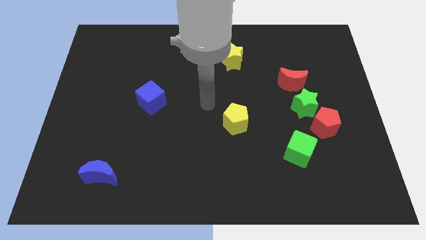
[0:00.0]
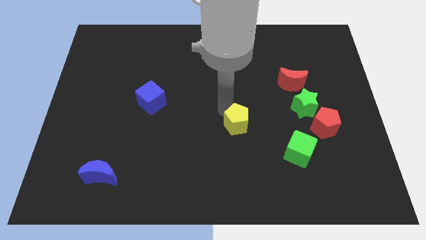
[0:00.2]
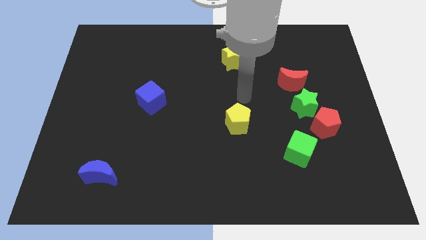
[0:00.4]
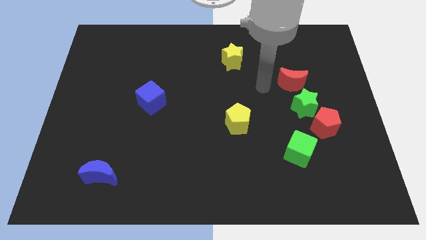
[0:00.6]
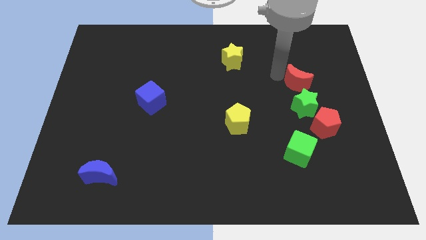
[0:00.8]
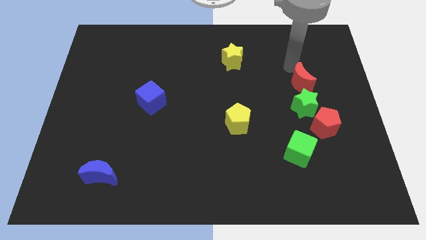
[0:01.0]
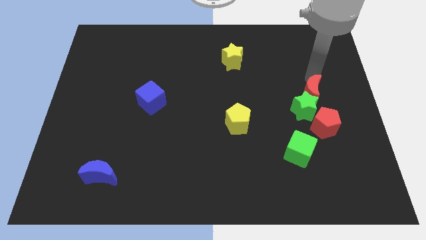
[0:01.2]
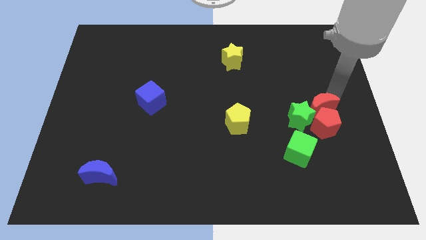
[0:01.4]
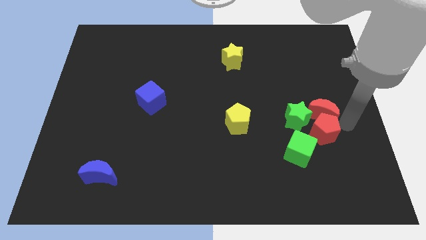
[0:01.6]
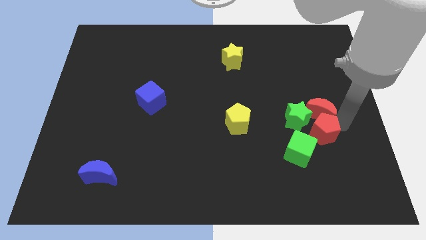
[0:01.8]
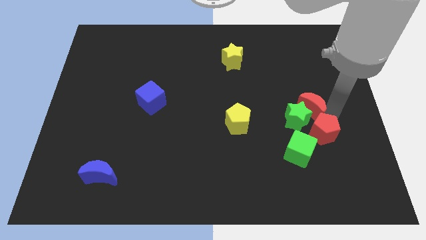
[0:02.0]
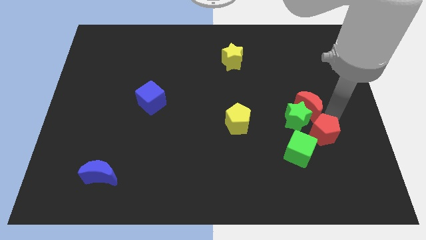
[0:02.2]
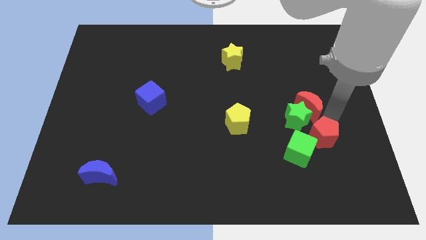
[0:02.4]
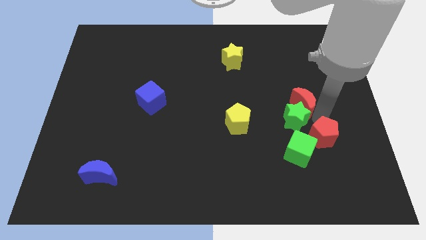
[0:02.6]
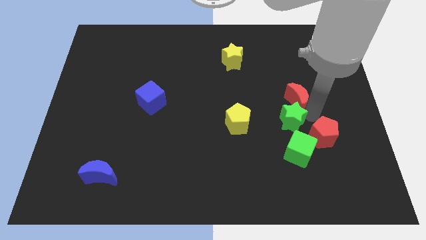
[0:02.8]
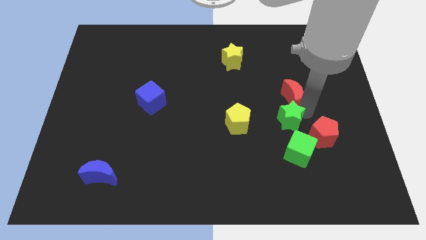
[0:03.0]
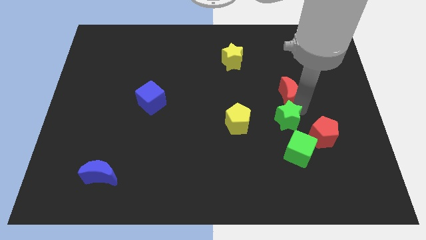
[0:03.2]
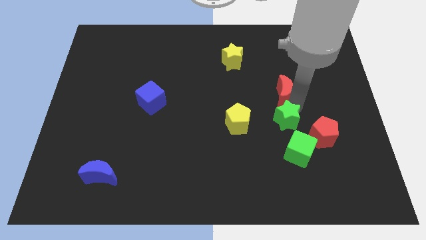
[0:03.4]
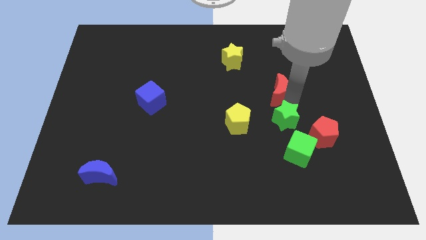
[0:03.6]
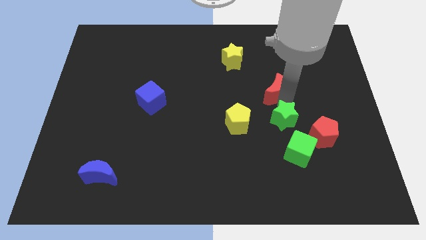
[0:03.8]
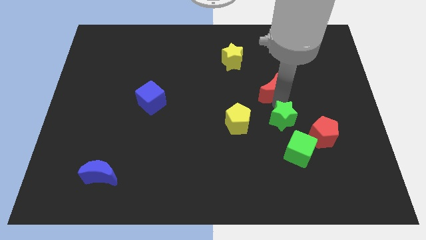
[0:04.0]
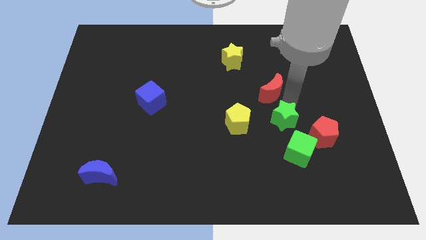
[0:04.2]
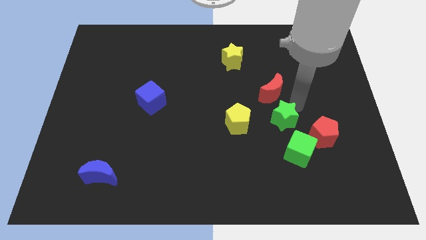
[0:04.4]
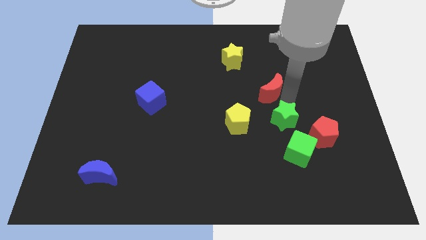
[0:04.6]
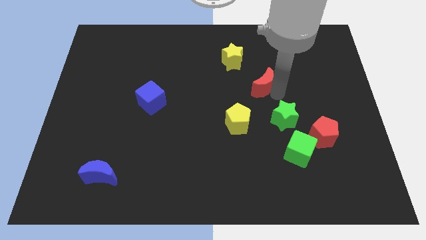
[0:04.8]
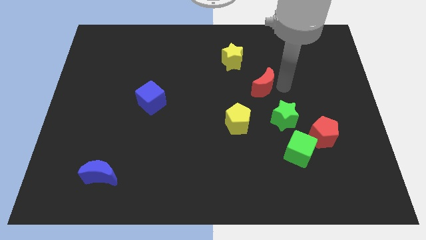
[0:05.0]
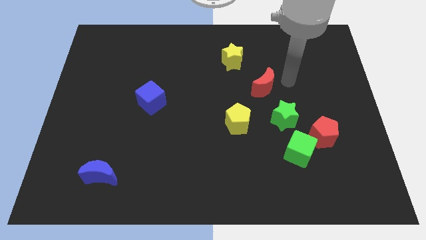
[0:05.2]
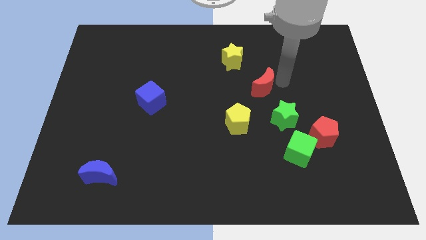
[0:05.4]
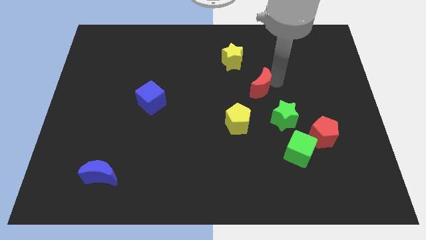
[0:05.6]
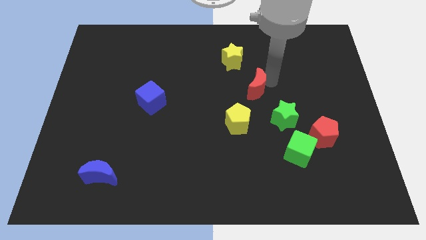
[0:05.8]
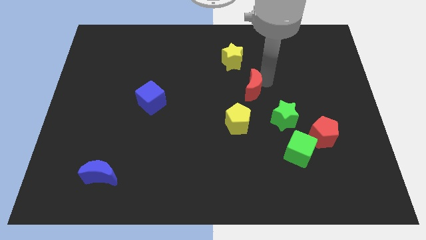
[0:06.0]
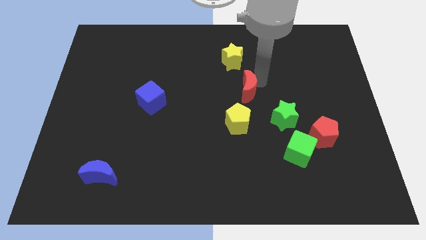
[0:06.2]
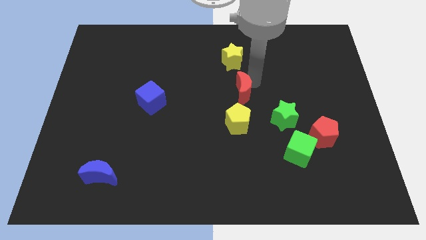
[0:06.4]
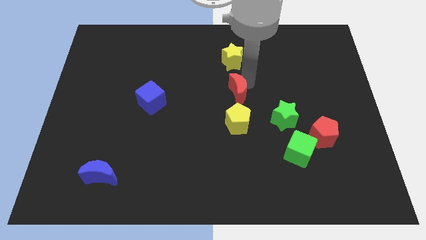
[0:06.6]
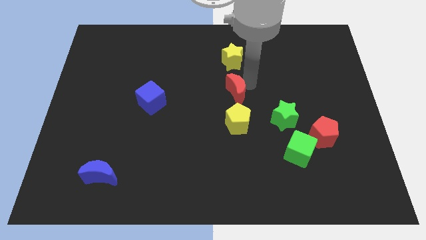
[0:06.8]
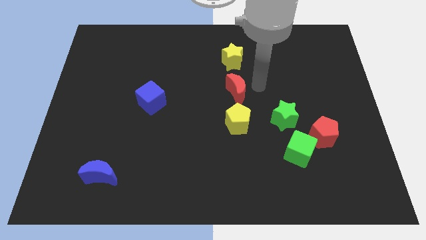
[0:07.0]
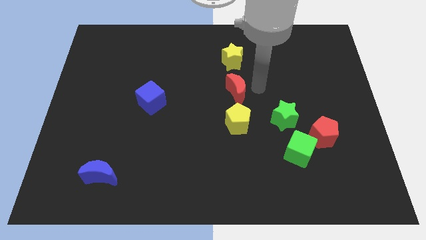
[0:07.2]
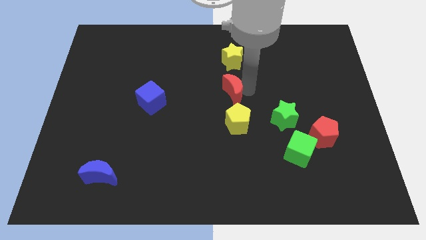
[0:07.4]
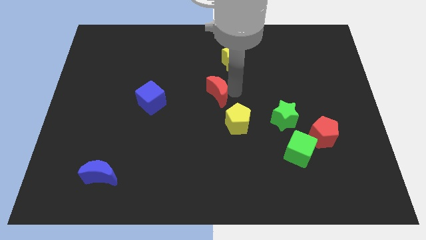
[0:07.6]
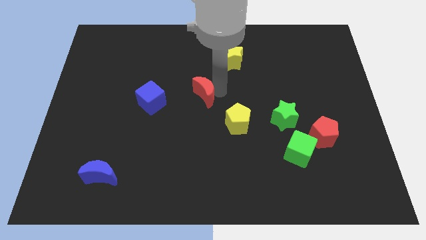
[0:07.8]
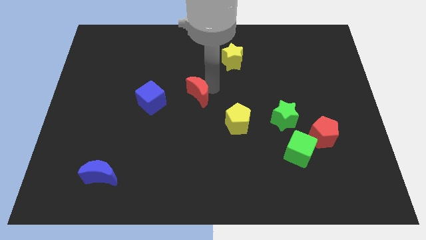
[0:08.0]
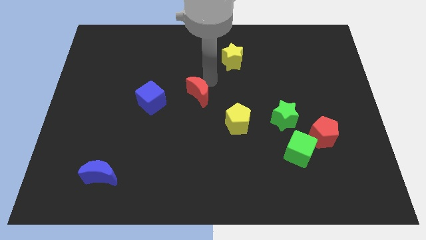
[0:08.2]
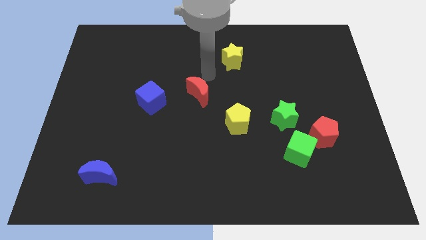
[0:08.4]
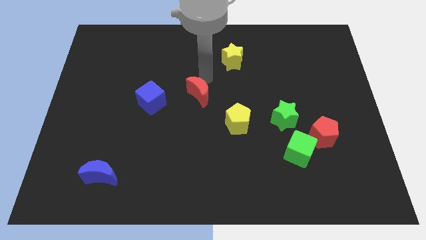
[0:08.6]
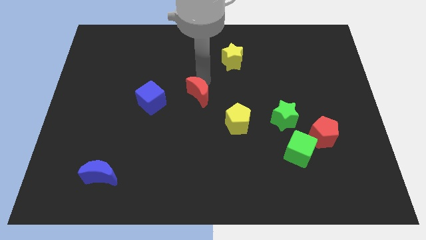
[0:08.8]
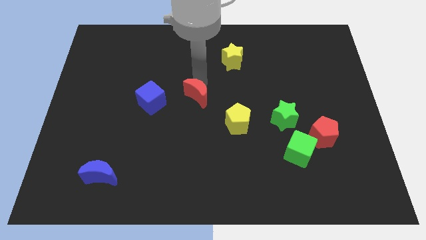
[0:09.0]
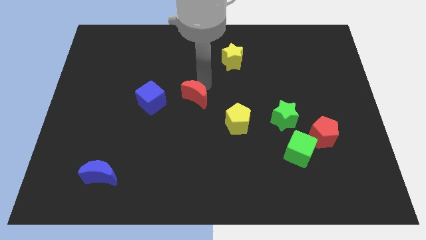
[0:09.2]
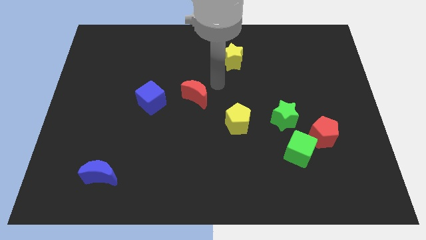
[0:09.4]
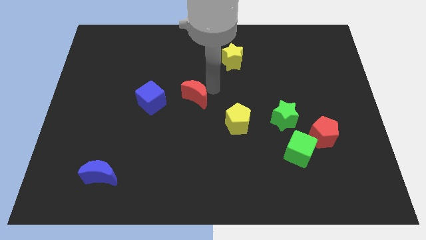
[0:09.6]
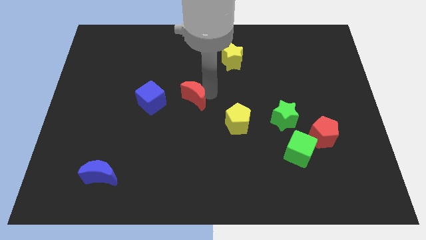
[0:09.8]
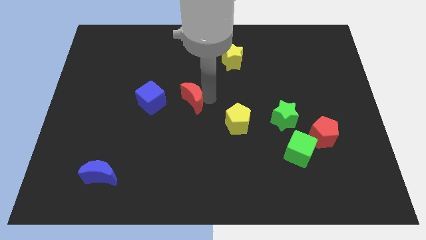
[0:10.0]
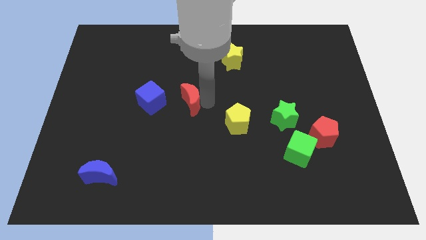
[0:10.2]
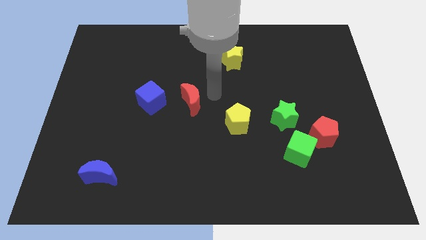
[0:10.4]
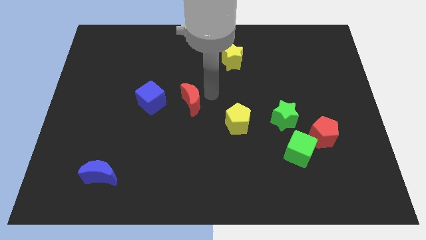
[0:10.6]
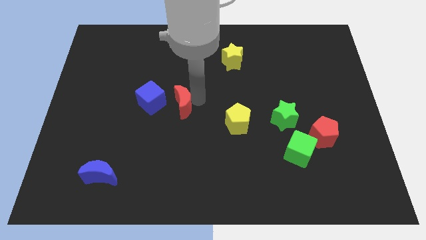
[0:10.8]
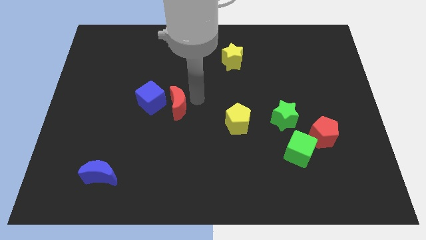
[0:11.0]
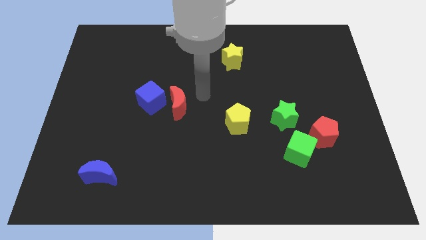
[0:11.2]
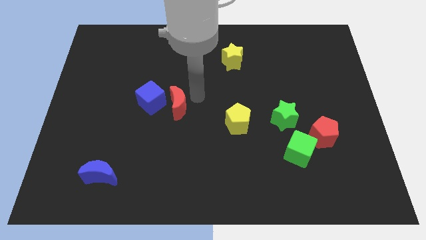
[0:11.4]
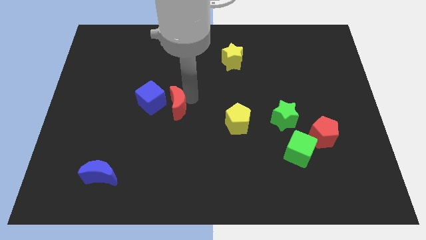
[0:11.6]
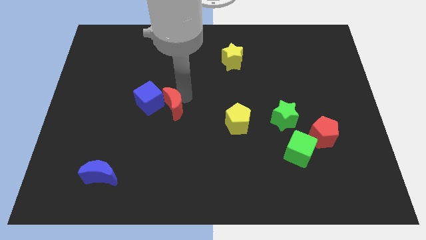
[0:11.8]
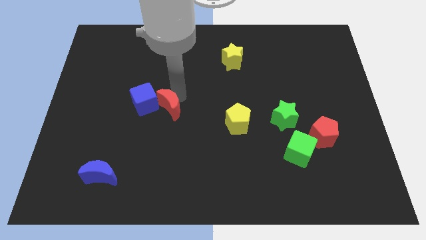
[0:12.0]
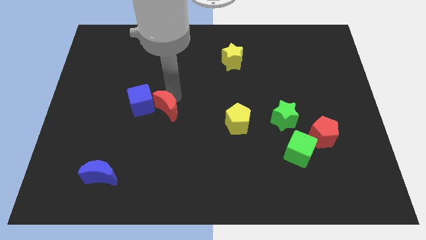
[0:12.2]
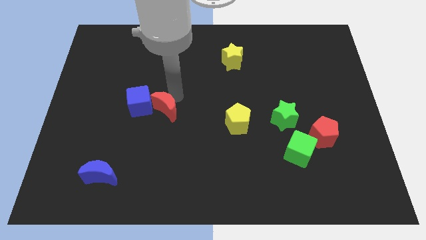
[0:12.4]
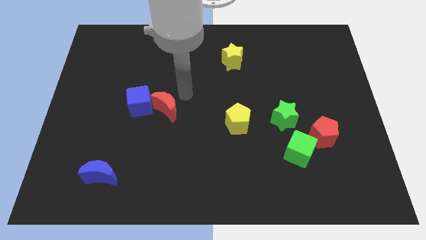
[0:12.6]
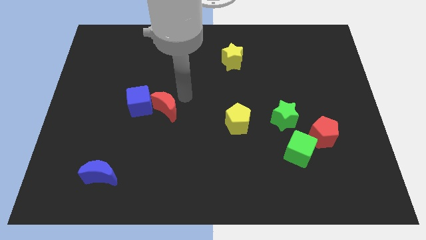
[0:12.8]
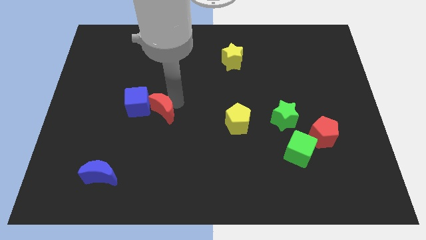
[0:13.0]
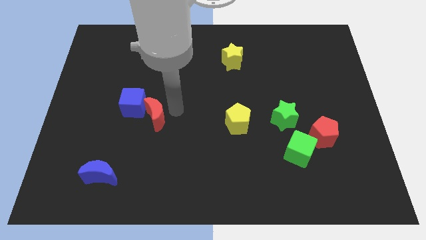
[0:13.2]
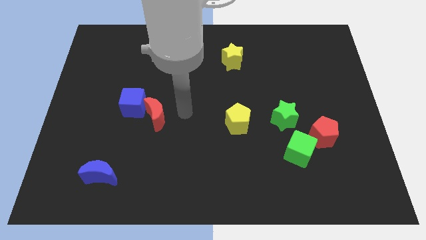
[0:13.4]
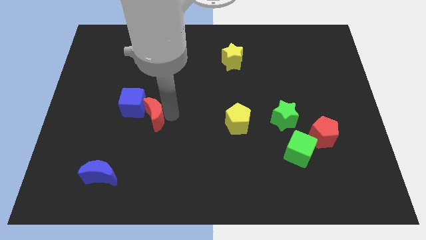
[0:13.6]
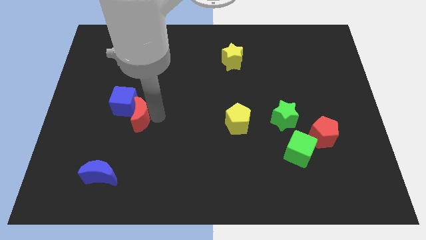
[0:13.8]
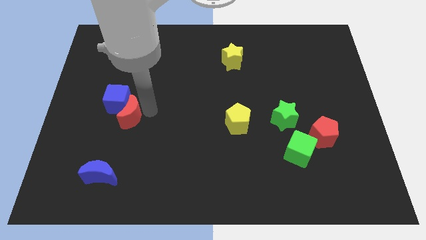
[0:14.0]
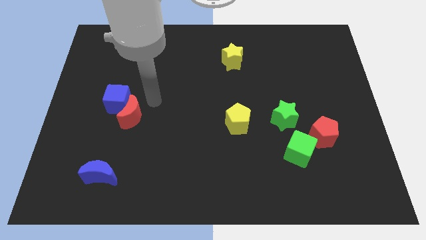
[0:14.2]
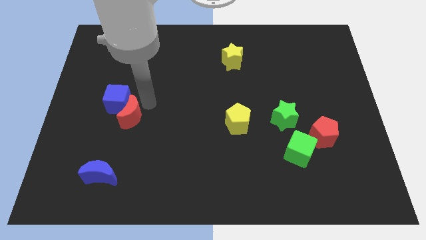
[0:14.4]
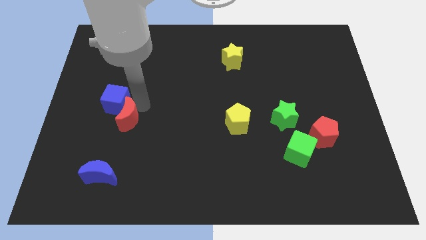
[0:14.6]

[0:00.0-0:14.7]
push the red moon above the blue moon
